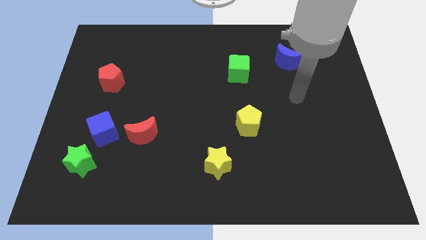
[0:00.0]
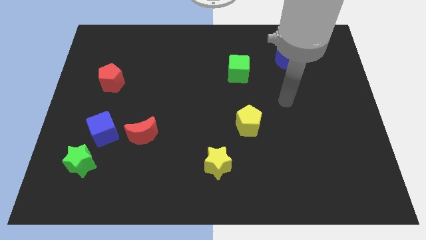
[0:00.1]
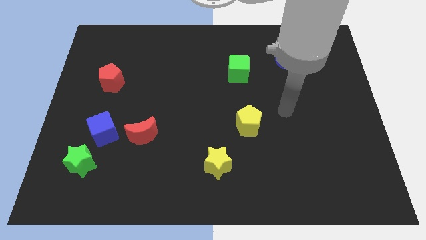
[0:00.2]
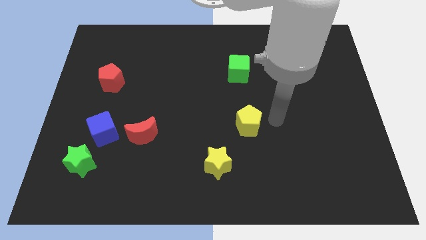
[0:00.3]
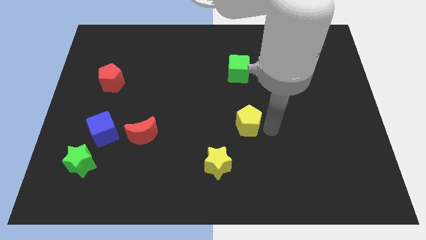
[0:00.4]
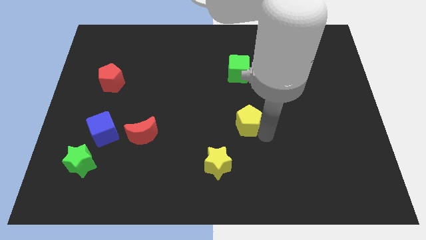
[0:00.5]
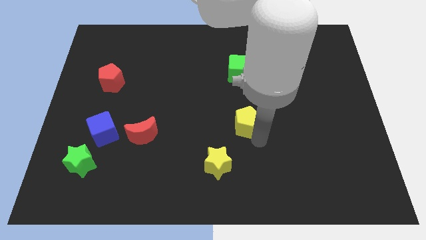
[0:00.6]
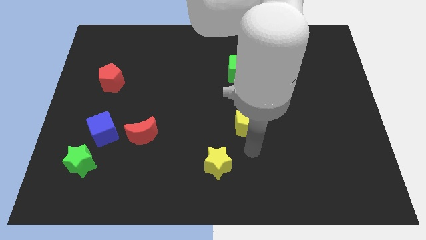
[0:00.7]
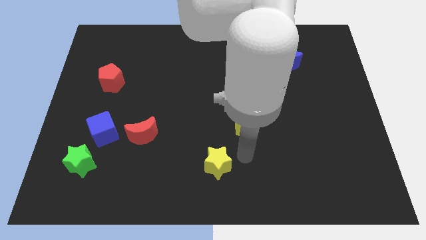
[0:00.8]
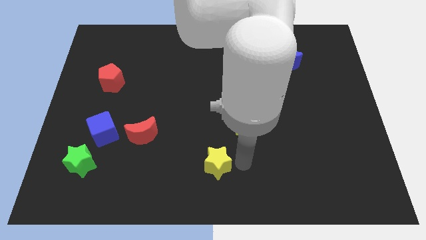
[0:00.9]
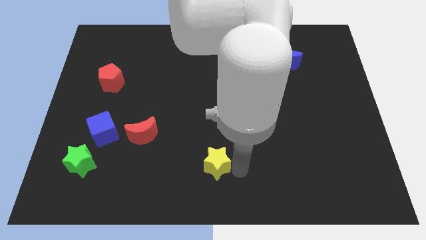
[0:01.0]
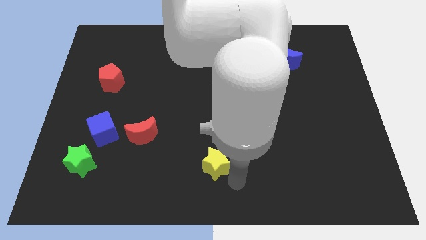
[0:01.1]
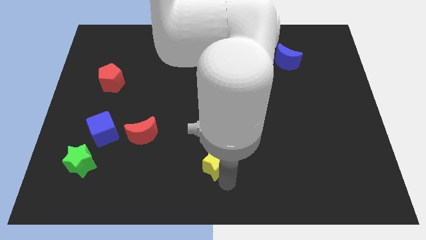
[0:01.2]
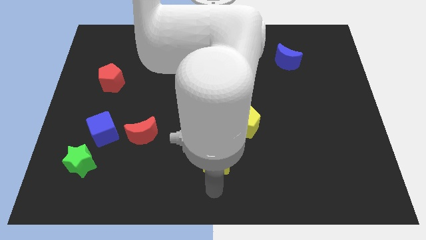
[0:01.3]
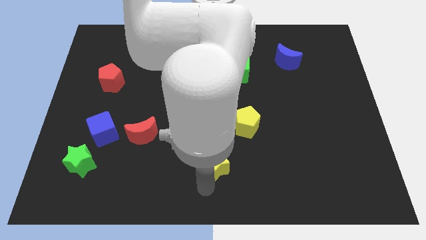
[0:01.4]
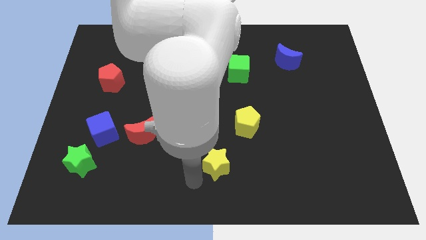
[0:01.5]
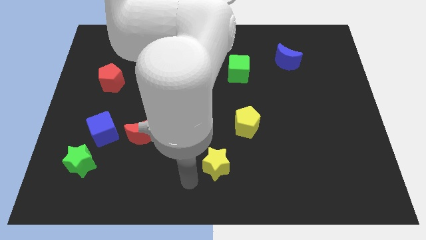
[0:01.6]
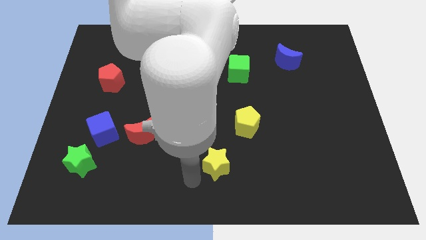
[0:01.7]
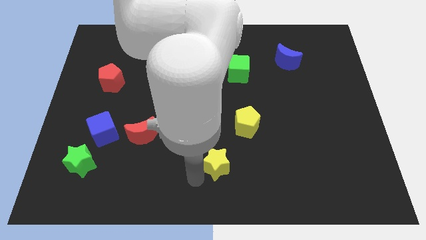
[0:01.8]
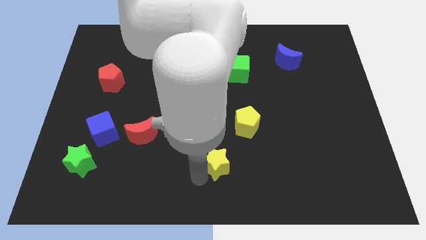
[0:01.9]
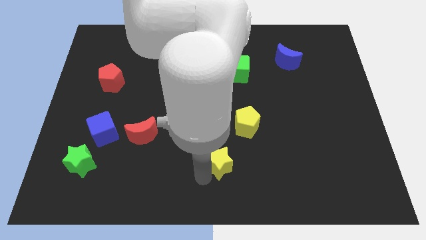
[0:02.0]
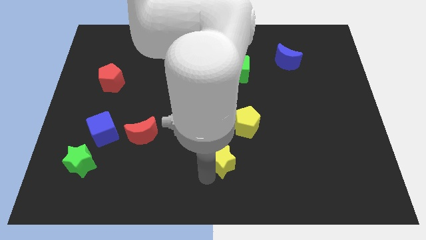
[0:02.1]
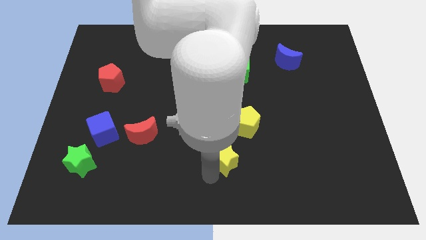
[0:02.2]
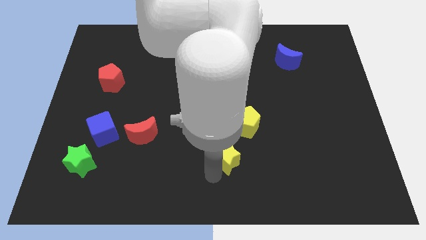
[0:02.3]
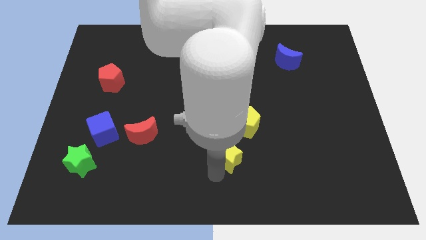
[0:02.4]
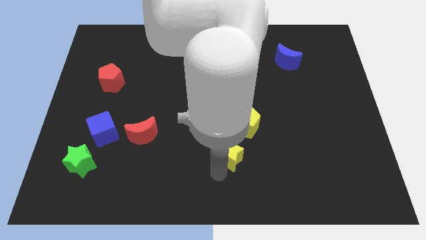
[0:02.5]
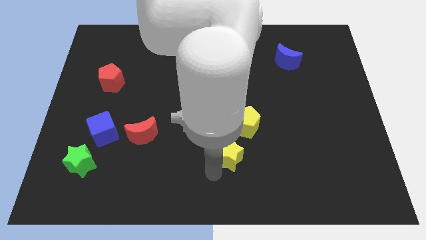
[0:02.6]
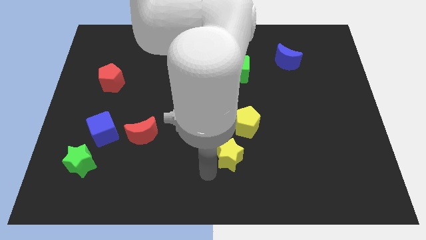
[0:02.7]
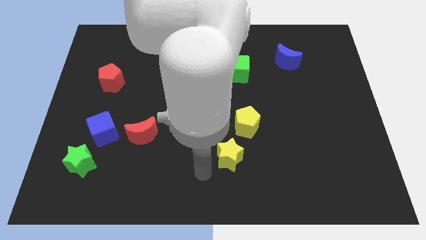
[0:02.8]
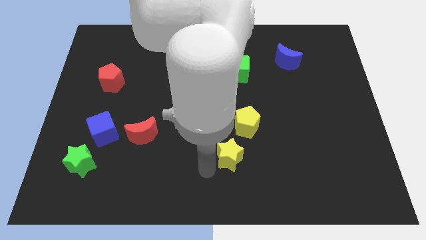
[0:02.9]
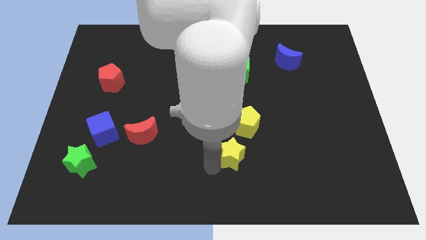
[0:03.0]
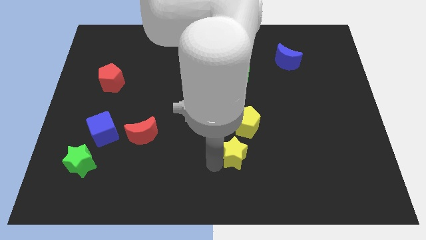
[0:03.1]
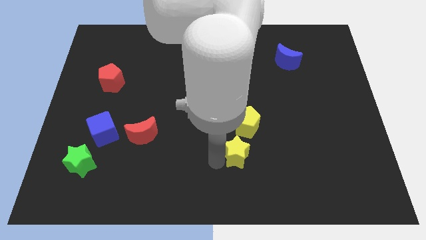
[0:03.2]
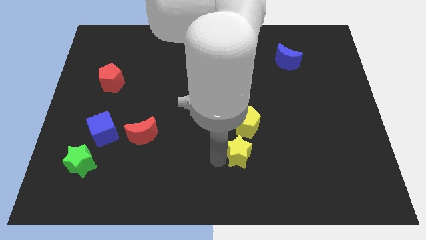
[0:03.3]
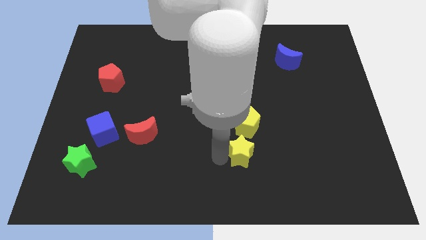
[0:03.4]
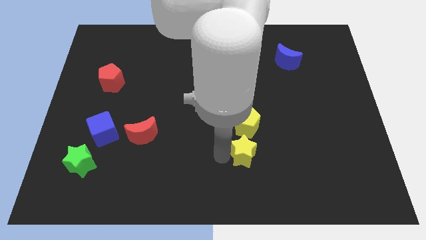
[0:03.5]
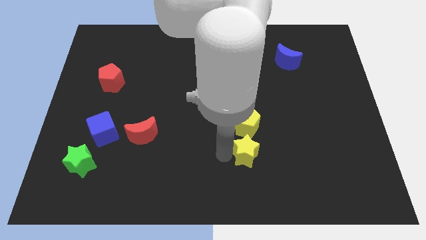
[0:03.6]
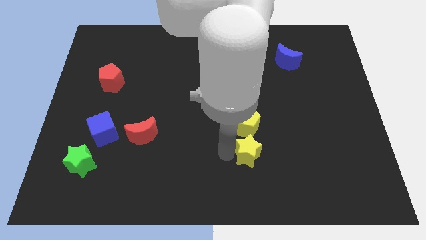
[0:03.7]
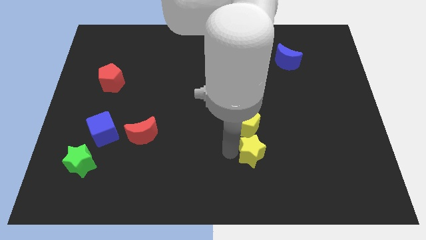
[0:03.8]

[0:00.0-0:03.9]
push the yellow star a little bit upwards and to the right diagonally

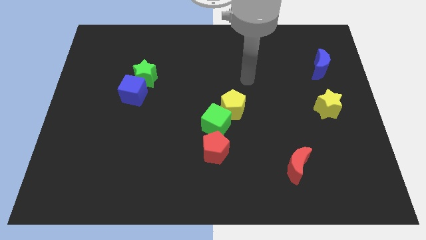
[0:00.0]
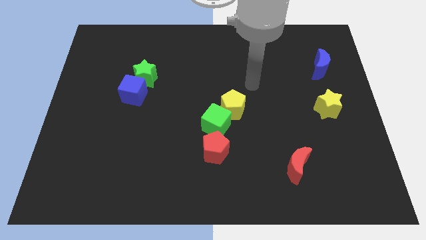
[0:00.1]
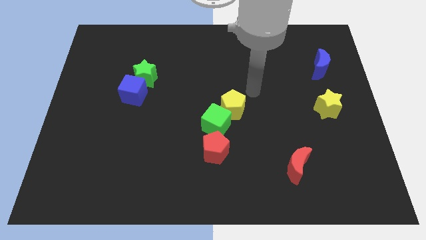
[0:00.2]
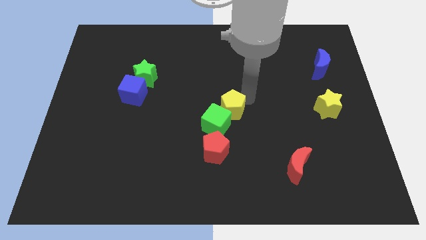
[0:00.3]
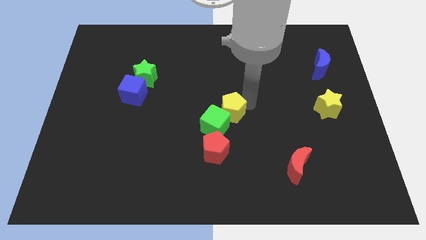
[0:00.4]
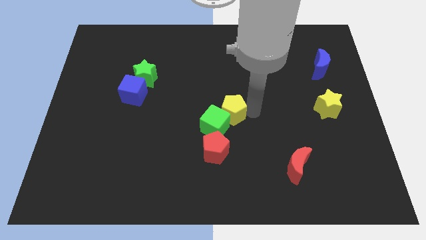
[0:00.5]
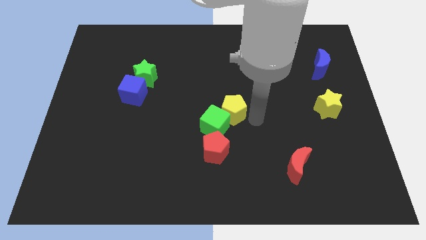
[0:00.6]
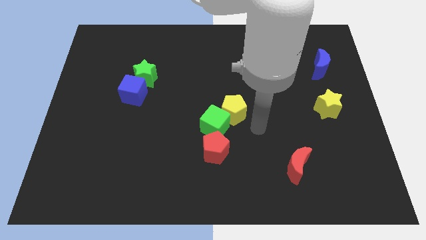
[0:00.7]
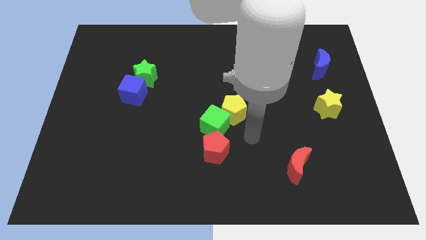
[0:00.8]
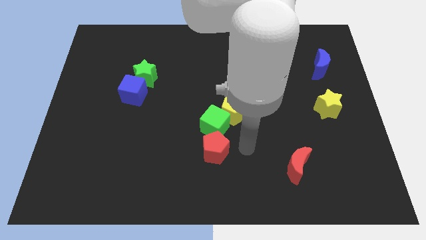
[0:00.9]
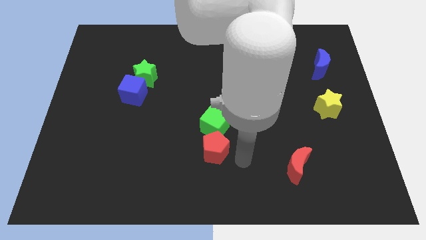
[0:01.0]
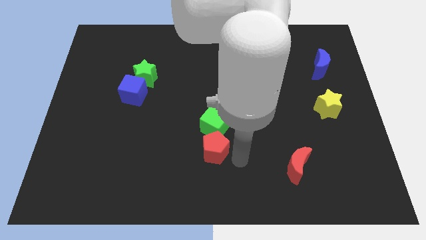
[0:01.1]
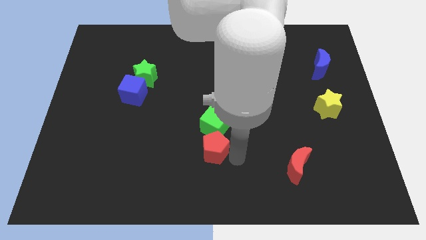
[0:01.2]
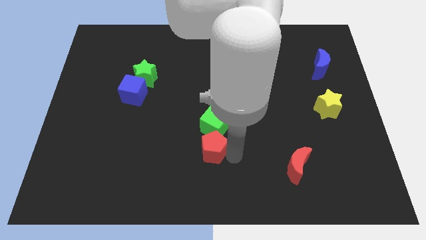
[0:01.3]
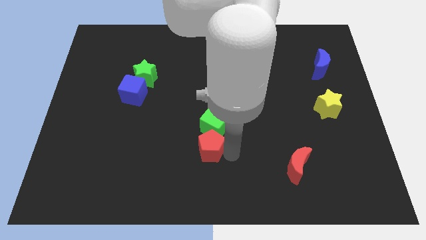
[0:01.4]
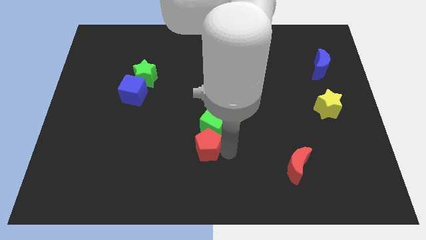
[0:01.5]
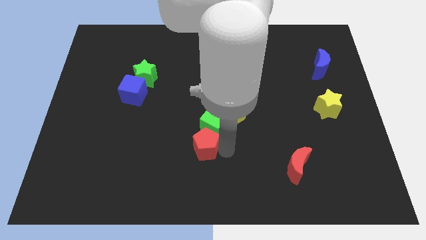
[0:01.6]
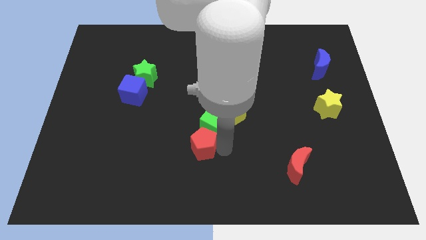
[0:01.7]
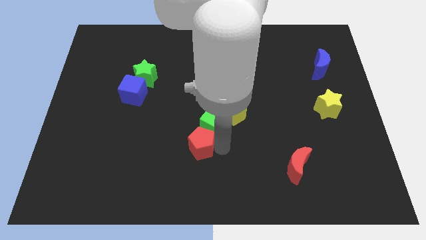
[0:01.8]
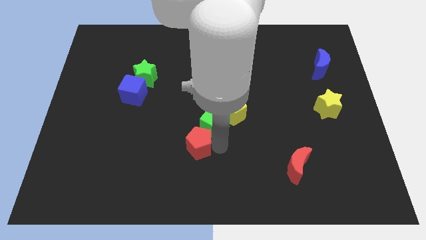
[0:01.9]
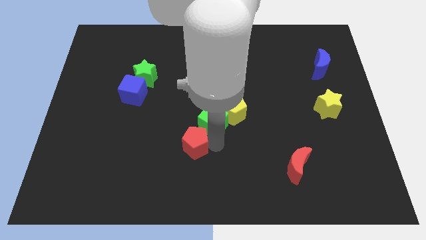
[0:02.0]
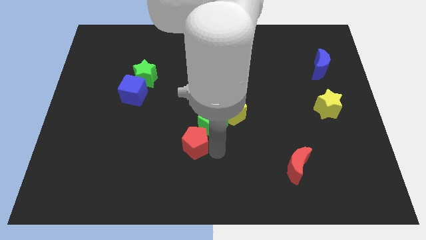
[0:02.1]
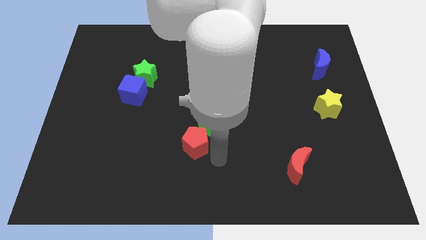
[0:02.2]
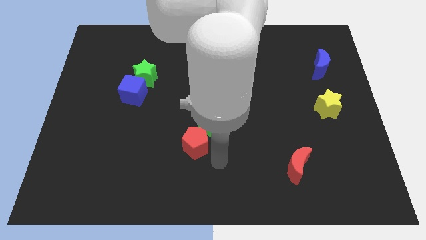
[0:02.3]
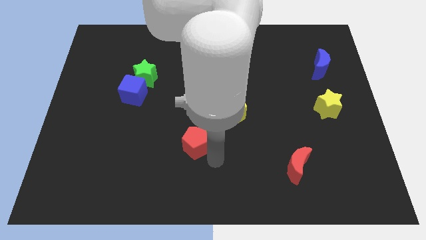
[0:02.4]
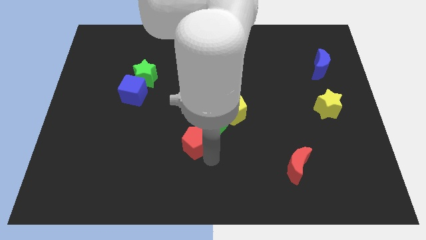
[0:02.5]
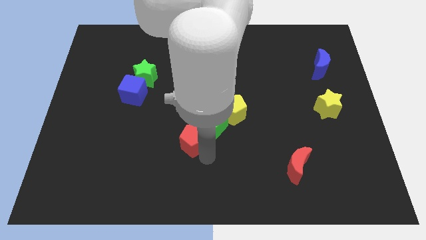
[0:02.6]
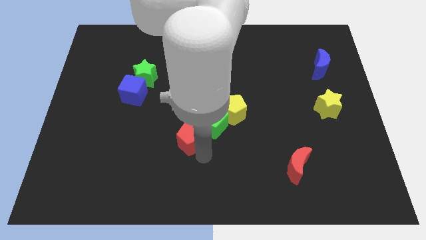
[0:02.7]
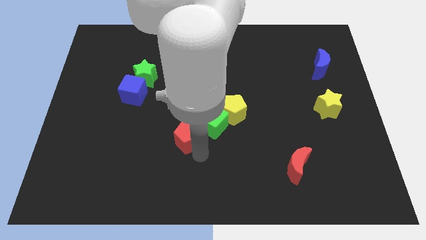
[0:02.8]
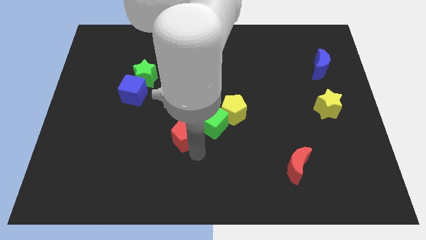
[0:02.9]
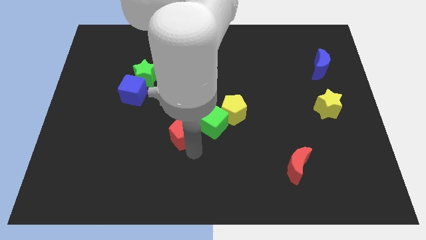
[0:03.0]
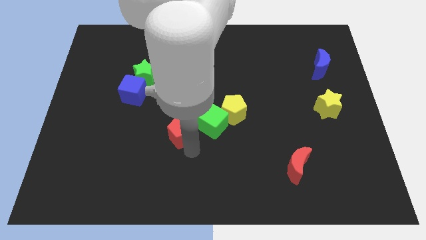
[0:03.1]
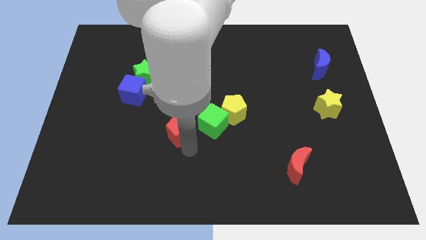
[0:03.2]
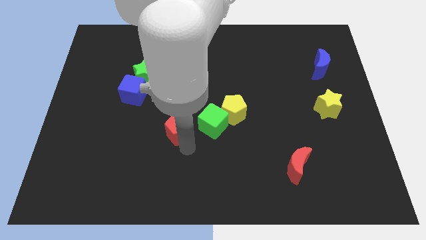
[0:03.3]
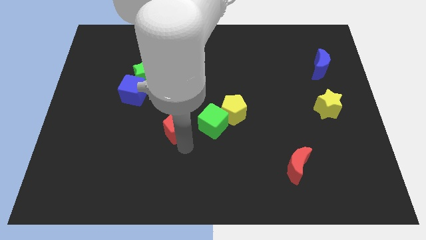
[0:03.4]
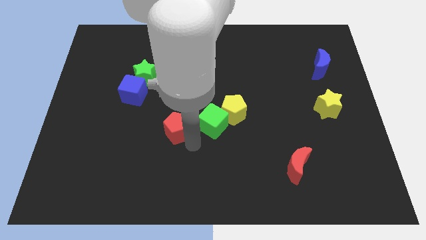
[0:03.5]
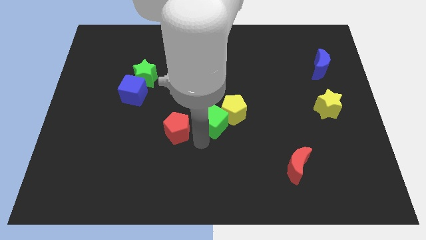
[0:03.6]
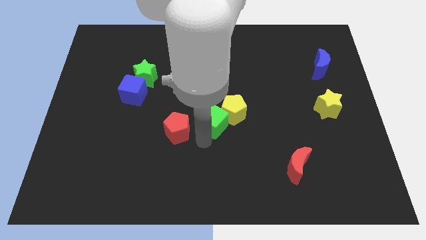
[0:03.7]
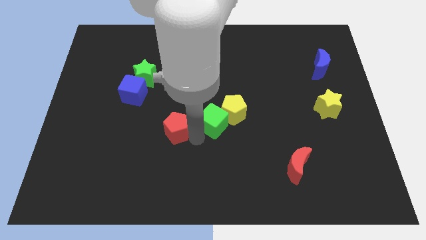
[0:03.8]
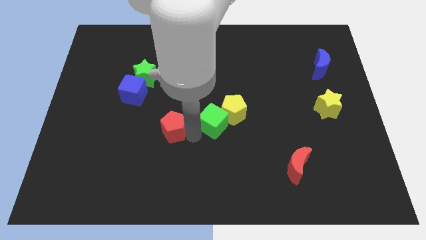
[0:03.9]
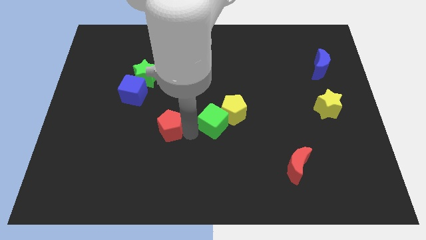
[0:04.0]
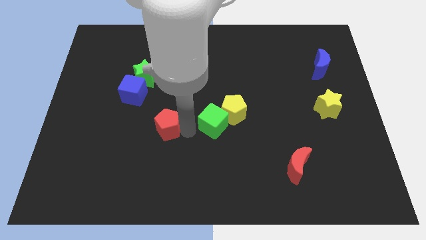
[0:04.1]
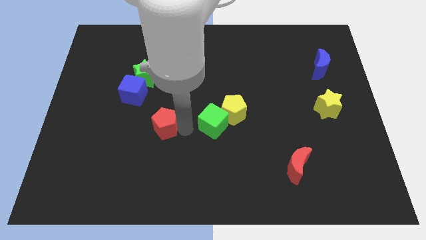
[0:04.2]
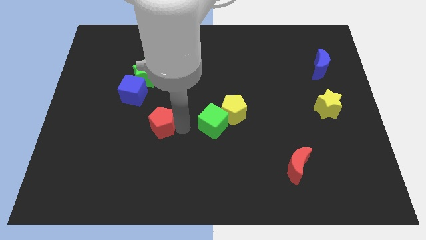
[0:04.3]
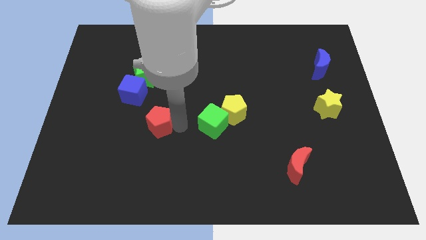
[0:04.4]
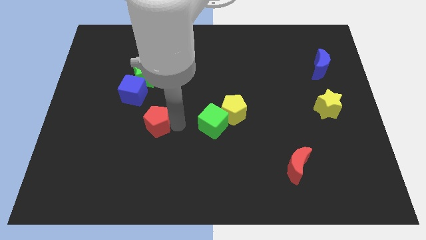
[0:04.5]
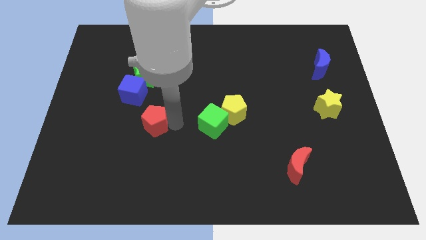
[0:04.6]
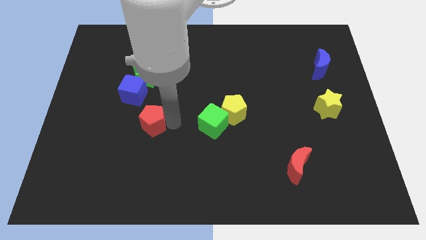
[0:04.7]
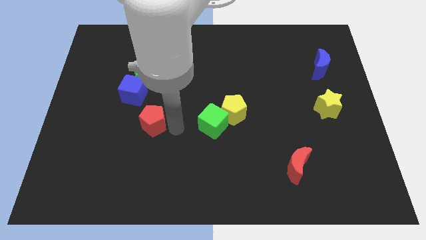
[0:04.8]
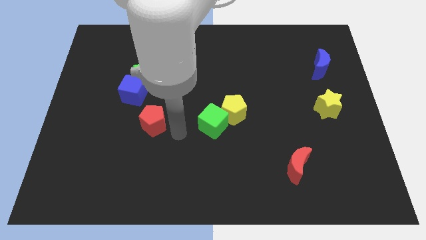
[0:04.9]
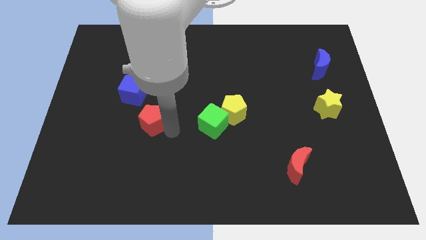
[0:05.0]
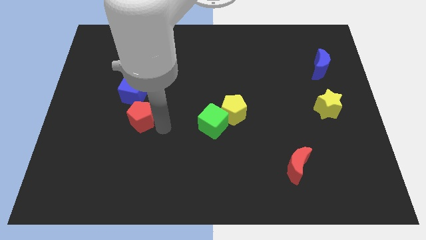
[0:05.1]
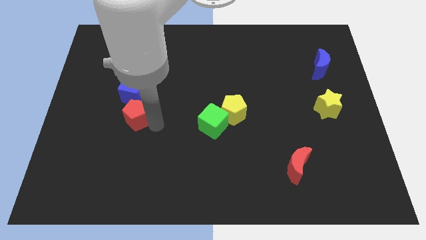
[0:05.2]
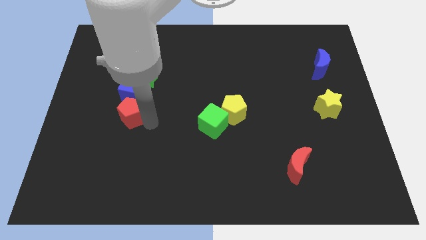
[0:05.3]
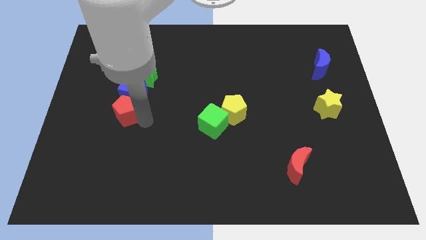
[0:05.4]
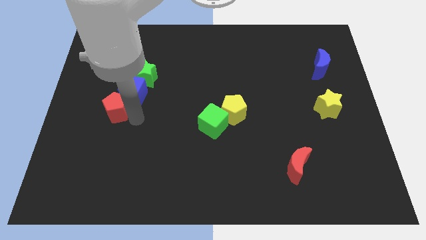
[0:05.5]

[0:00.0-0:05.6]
push the red pentagon up and left
